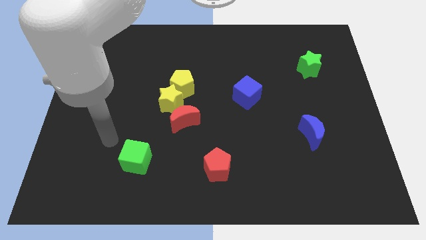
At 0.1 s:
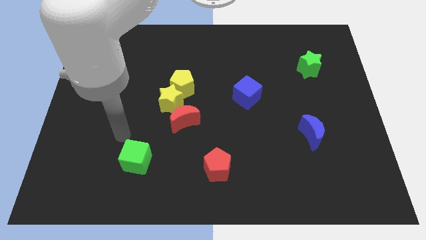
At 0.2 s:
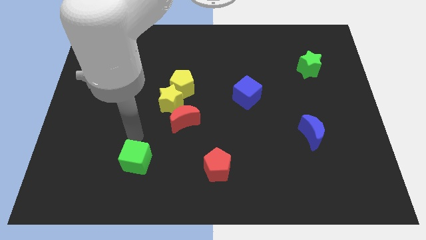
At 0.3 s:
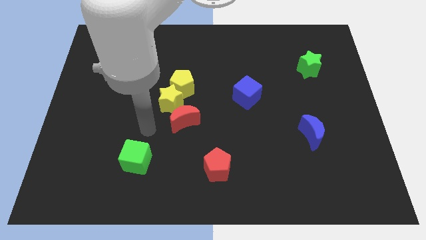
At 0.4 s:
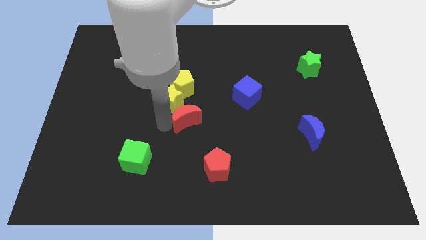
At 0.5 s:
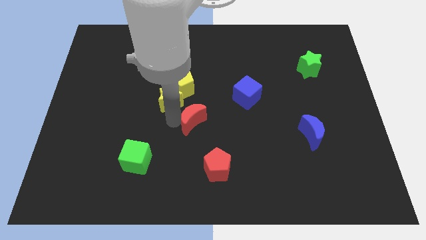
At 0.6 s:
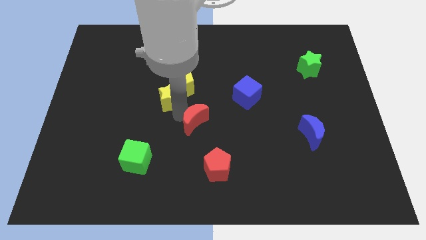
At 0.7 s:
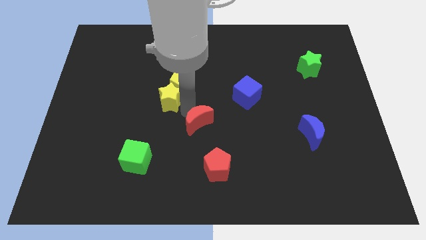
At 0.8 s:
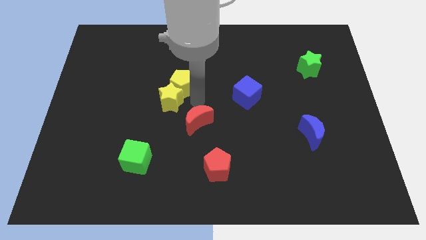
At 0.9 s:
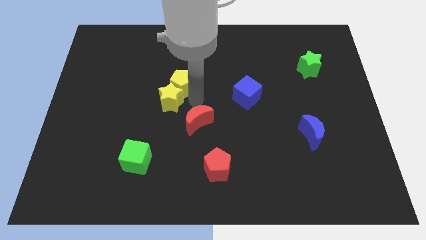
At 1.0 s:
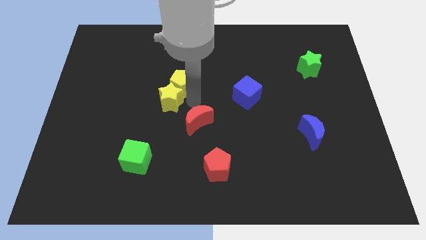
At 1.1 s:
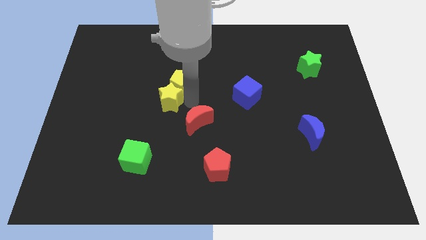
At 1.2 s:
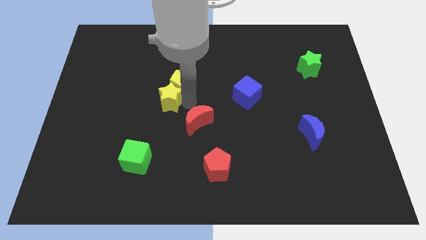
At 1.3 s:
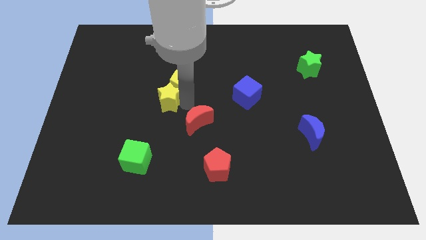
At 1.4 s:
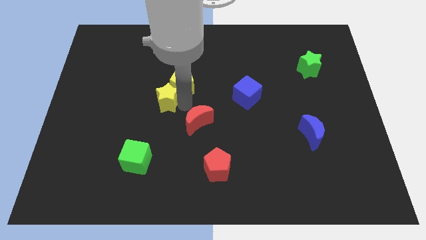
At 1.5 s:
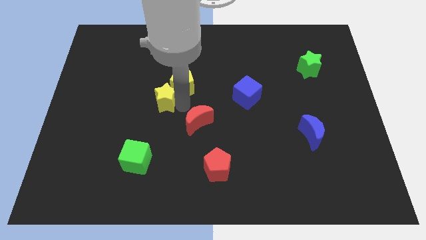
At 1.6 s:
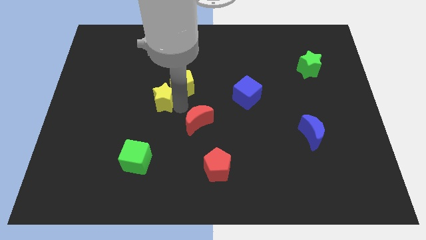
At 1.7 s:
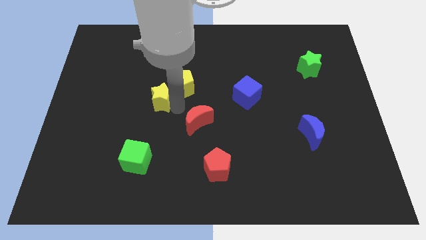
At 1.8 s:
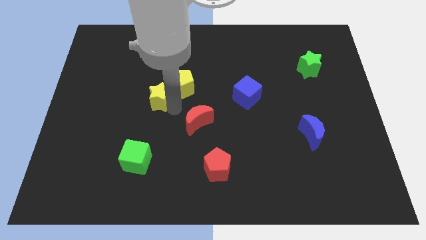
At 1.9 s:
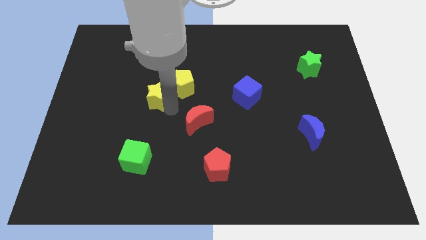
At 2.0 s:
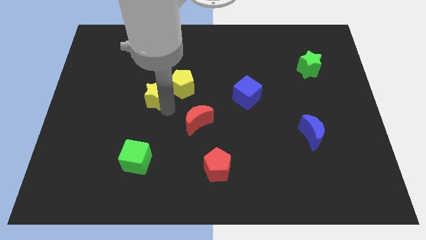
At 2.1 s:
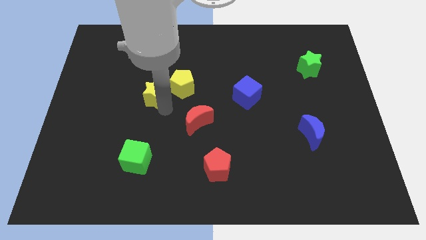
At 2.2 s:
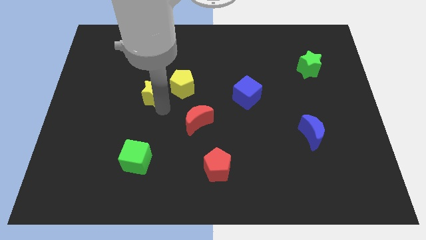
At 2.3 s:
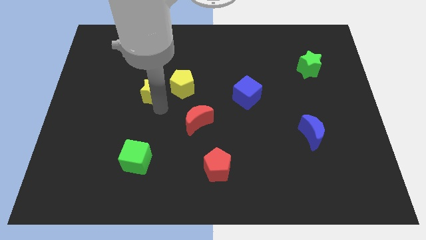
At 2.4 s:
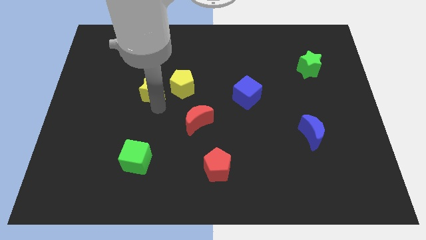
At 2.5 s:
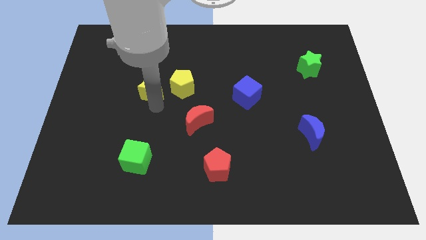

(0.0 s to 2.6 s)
move the yellow star away from the yellow pentagon and red moon

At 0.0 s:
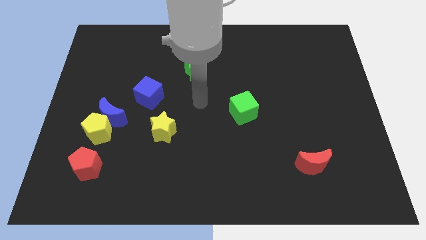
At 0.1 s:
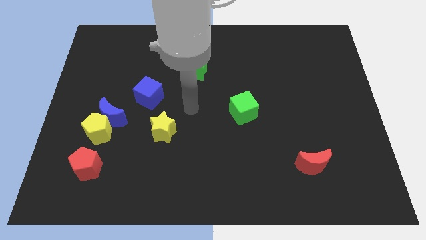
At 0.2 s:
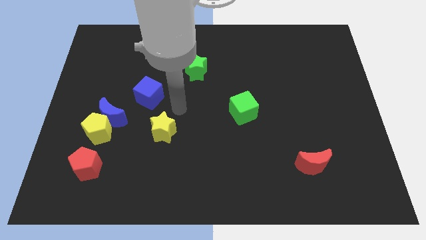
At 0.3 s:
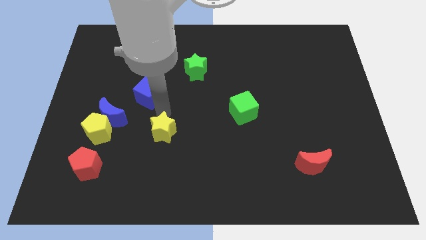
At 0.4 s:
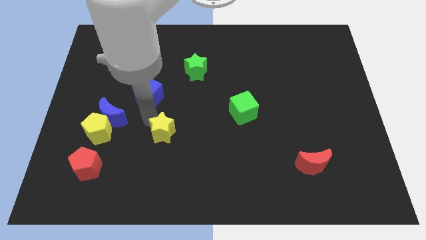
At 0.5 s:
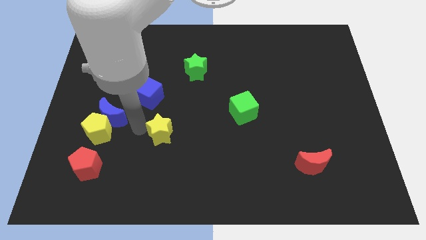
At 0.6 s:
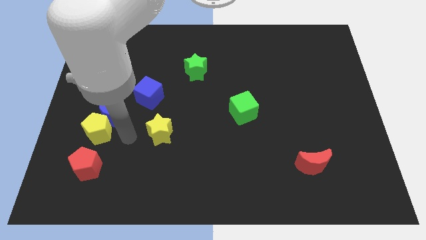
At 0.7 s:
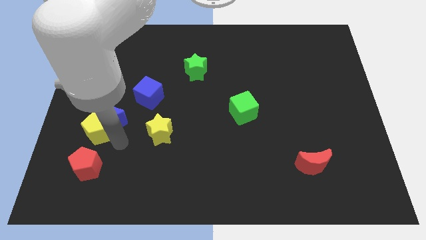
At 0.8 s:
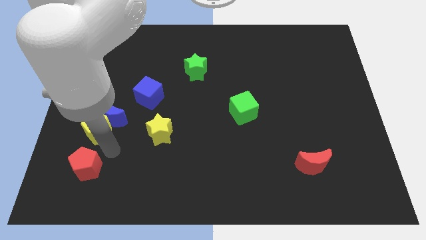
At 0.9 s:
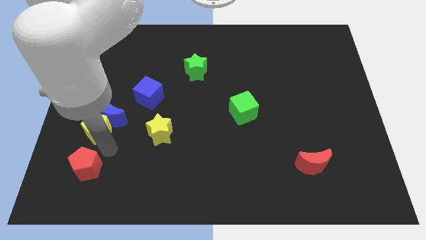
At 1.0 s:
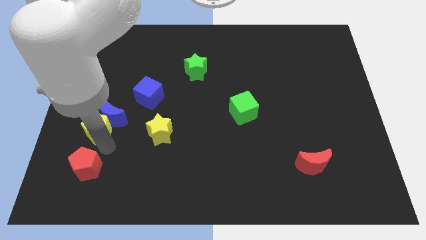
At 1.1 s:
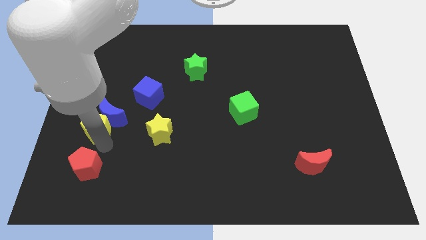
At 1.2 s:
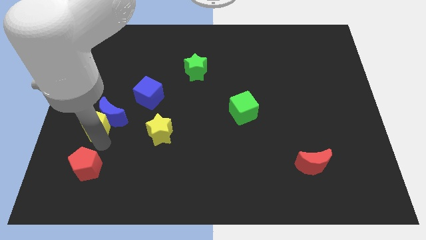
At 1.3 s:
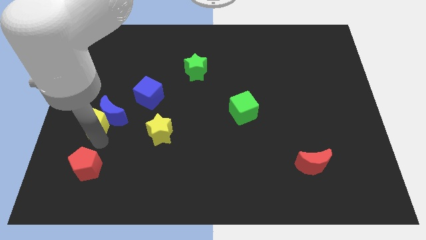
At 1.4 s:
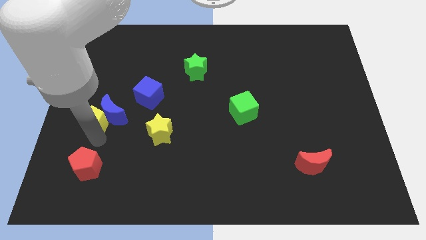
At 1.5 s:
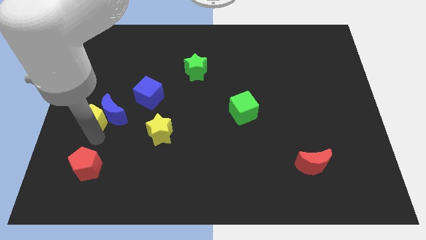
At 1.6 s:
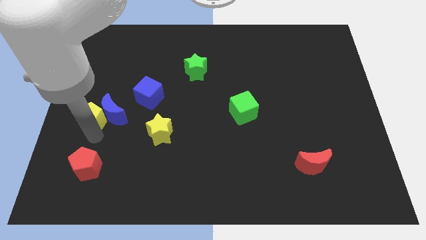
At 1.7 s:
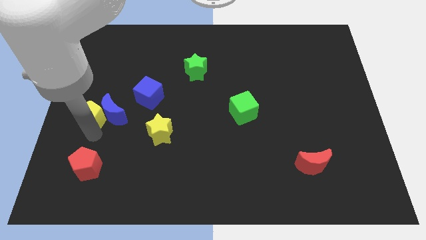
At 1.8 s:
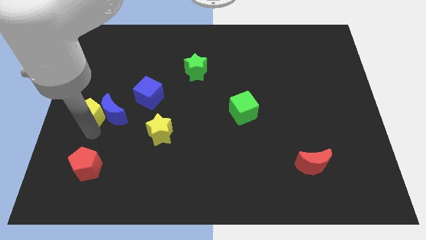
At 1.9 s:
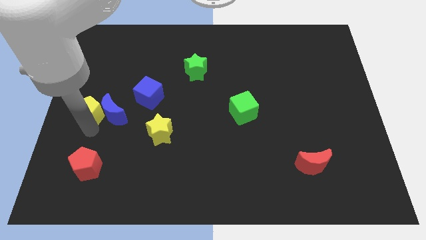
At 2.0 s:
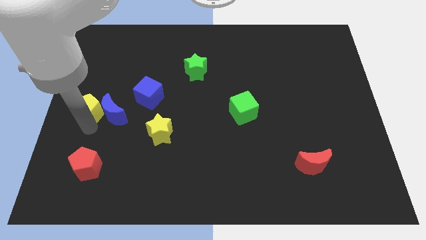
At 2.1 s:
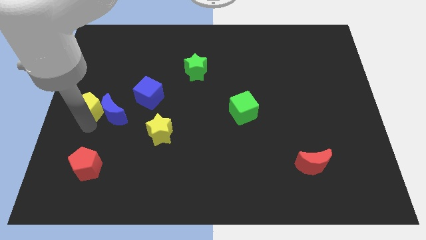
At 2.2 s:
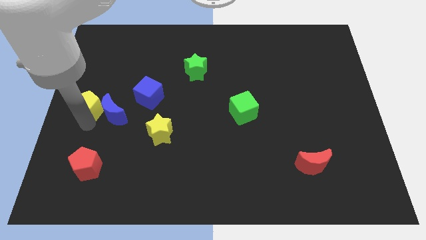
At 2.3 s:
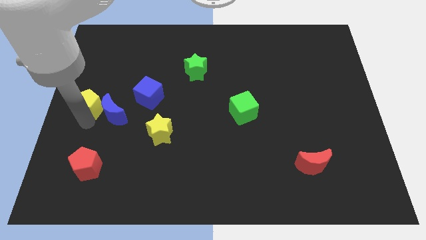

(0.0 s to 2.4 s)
separate the yellow pentagon from the blue moon and red pentagon

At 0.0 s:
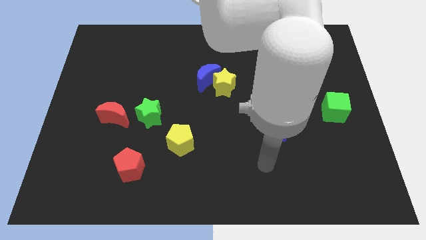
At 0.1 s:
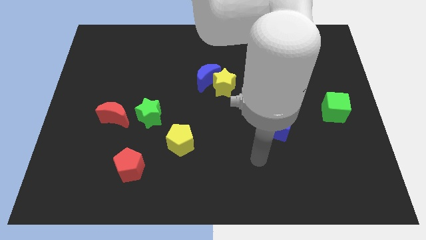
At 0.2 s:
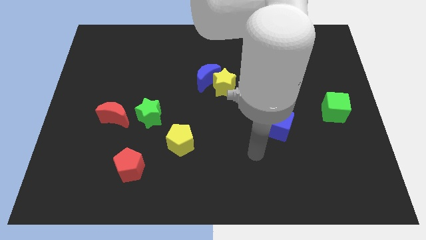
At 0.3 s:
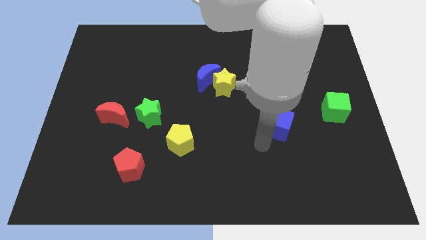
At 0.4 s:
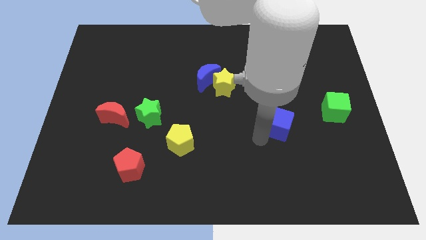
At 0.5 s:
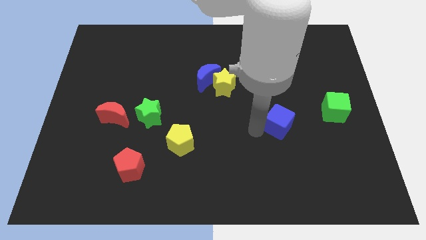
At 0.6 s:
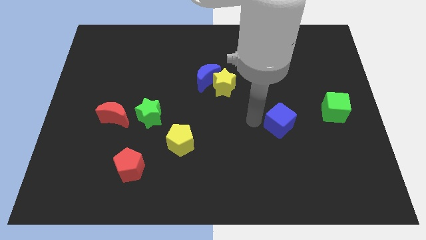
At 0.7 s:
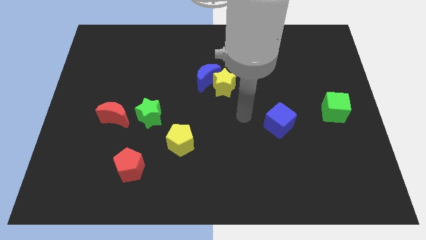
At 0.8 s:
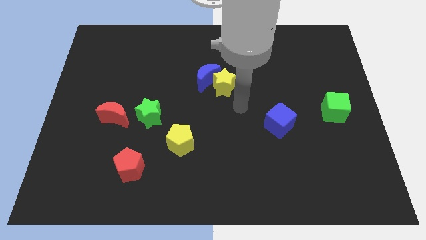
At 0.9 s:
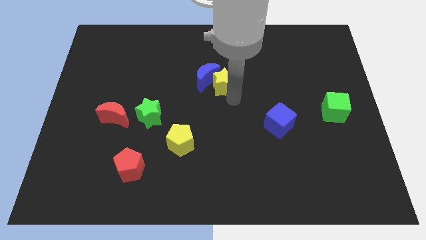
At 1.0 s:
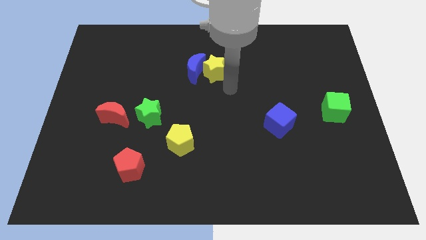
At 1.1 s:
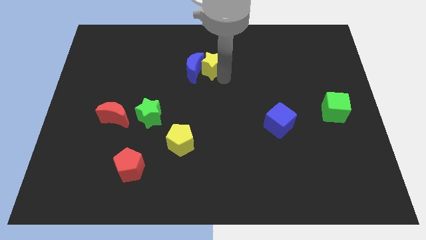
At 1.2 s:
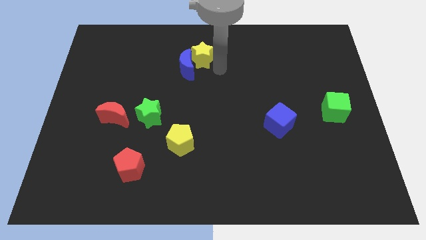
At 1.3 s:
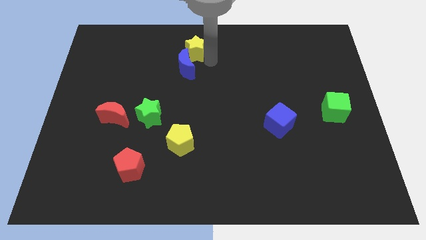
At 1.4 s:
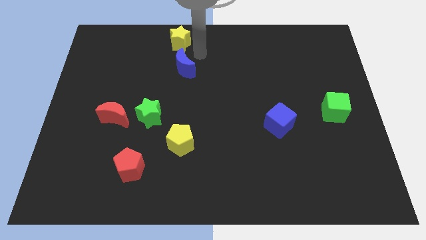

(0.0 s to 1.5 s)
separate the blue moon from the yellow star

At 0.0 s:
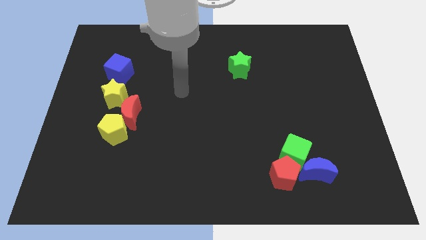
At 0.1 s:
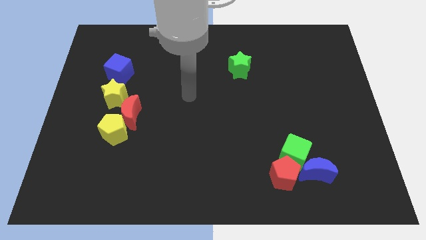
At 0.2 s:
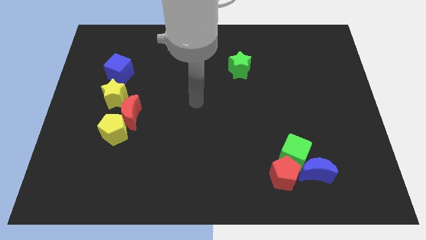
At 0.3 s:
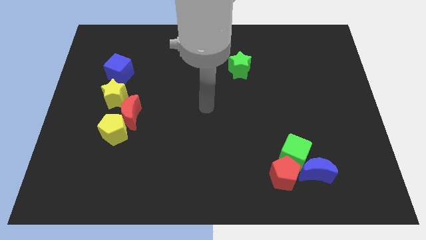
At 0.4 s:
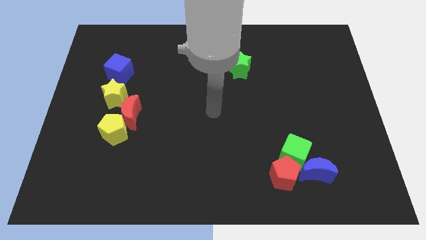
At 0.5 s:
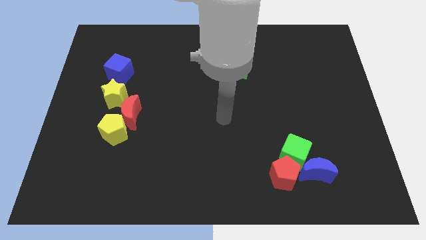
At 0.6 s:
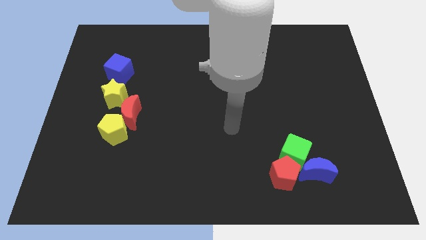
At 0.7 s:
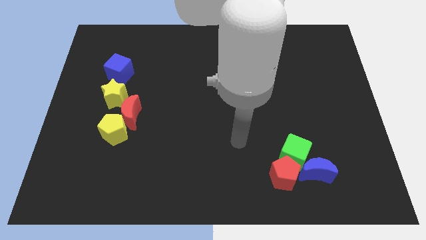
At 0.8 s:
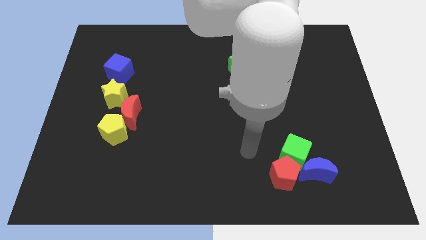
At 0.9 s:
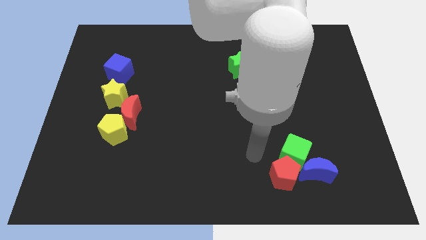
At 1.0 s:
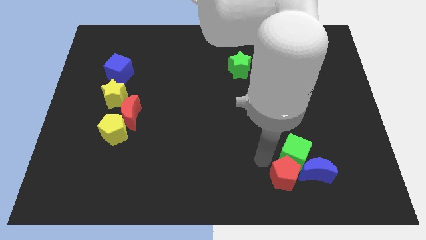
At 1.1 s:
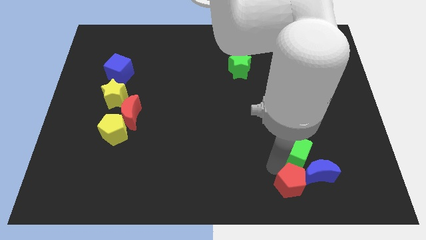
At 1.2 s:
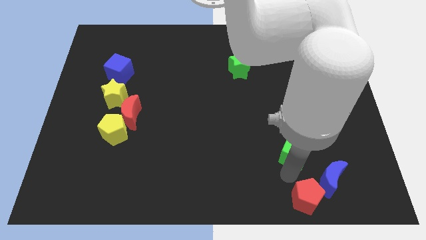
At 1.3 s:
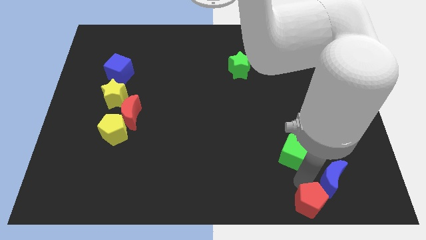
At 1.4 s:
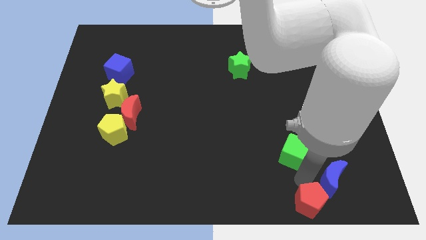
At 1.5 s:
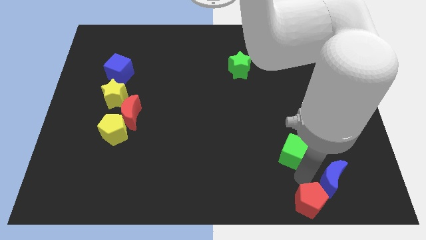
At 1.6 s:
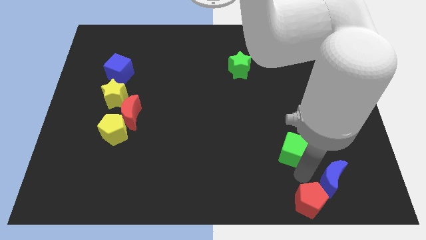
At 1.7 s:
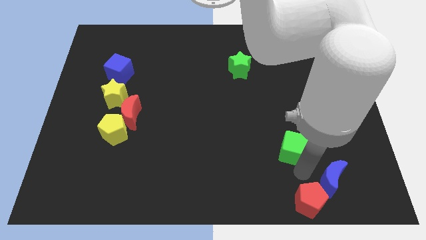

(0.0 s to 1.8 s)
move the green cube away from the red pentagon and blue moon

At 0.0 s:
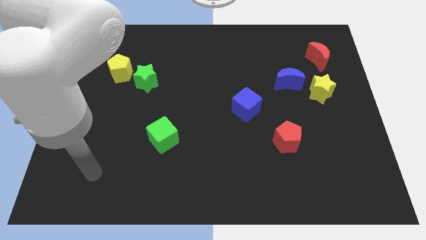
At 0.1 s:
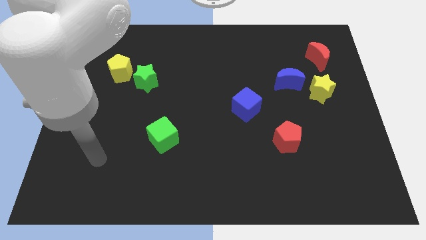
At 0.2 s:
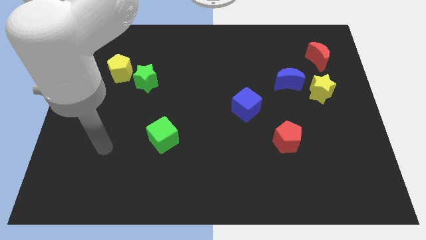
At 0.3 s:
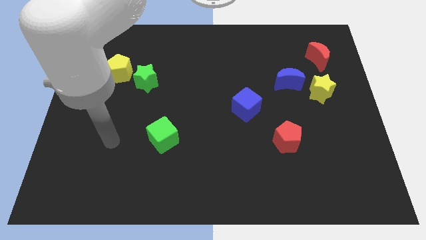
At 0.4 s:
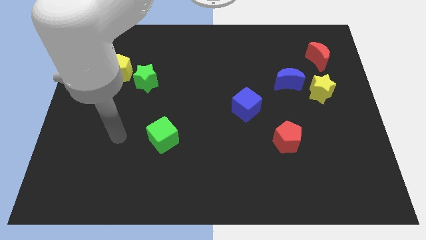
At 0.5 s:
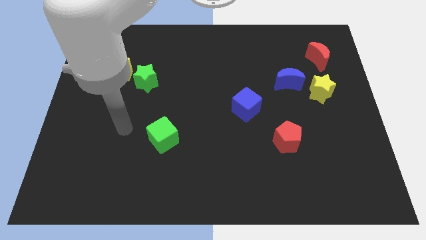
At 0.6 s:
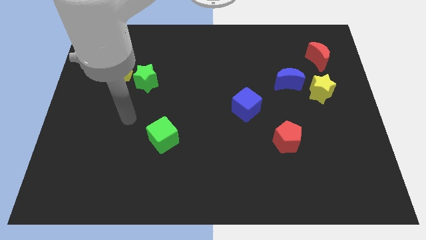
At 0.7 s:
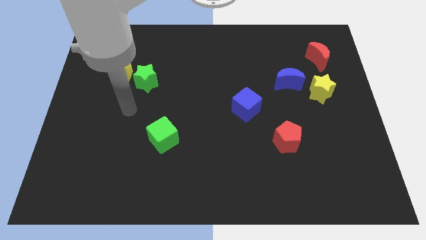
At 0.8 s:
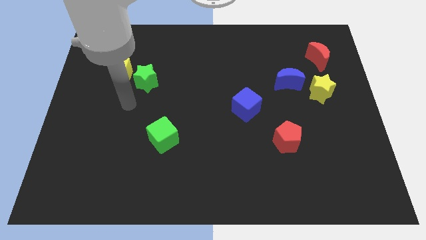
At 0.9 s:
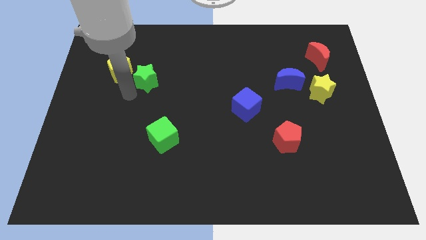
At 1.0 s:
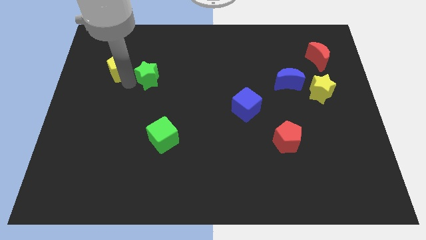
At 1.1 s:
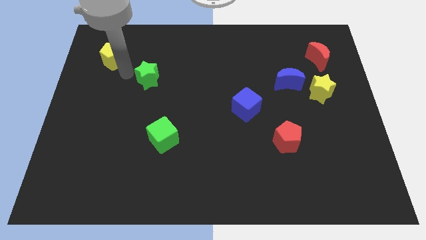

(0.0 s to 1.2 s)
pull the green star apart from the yellow pentagon
